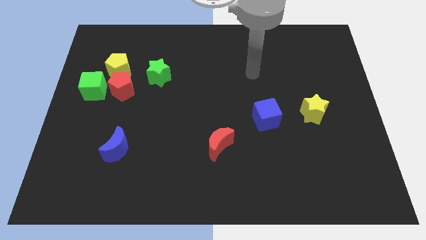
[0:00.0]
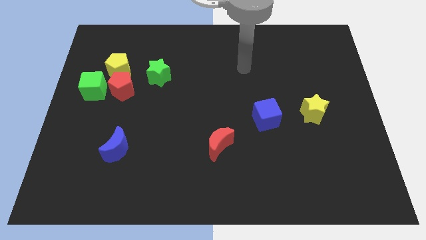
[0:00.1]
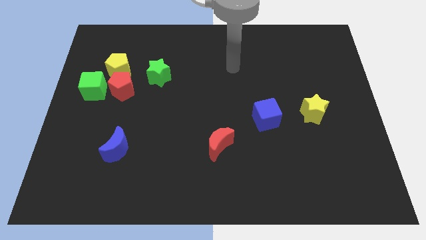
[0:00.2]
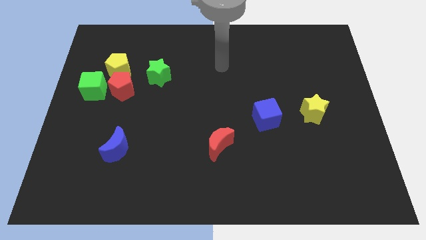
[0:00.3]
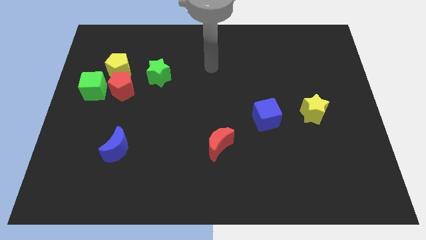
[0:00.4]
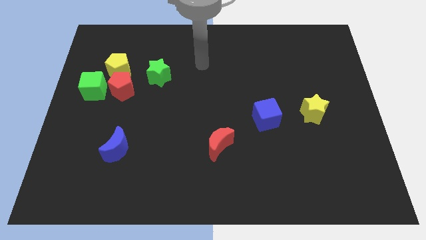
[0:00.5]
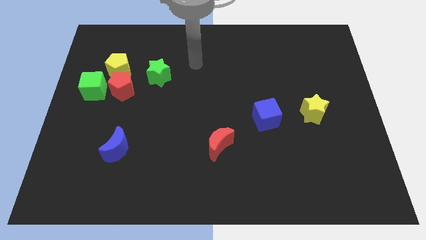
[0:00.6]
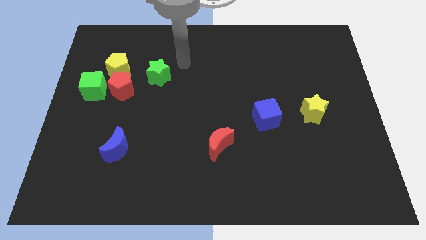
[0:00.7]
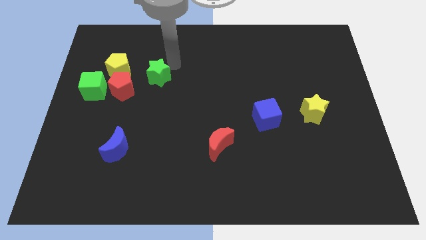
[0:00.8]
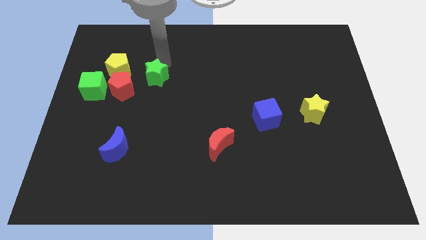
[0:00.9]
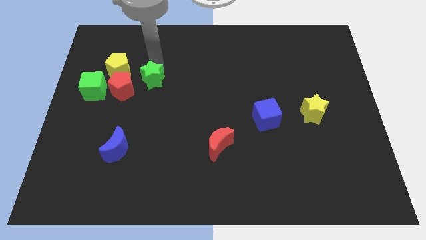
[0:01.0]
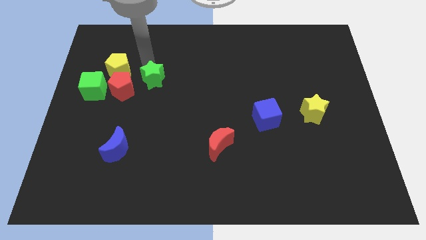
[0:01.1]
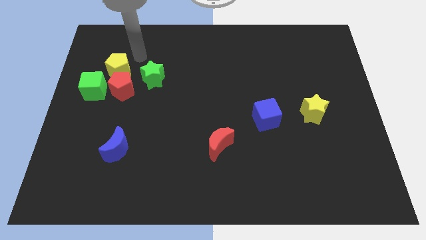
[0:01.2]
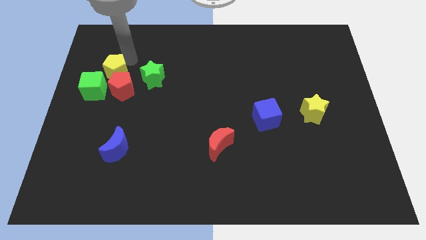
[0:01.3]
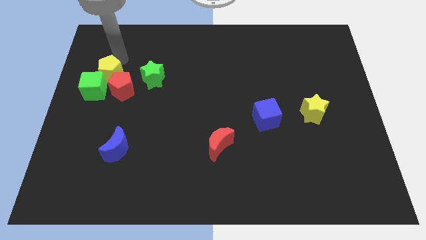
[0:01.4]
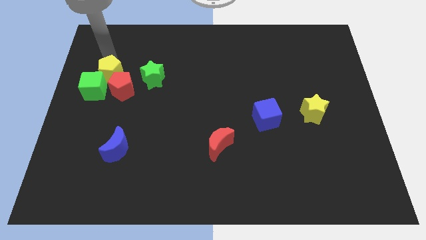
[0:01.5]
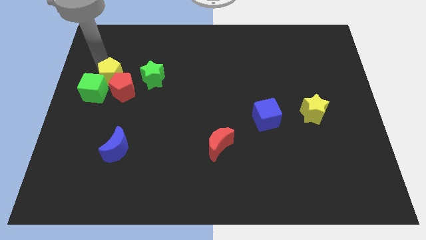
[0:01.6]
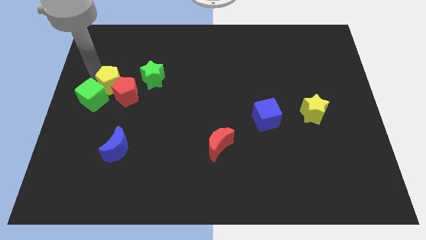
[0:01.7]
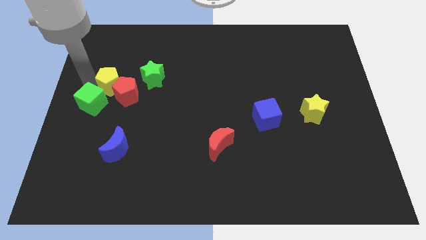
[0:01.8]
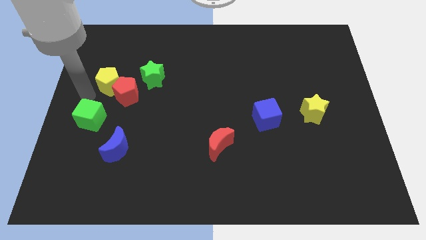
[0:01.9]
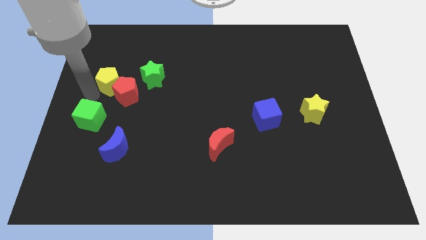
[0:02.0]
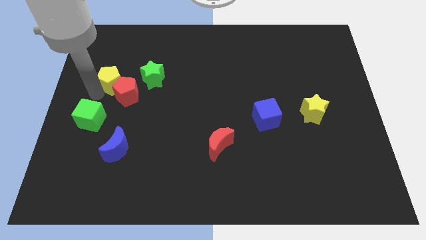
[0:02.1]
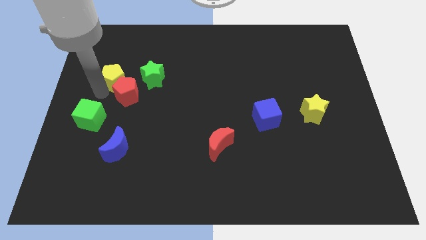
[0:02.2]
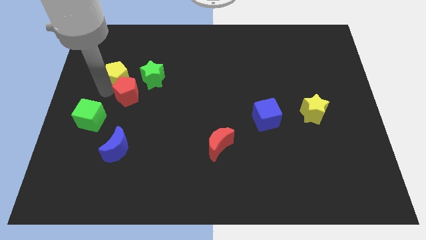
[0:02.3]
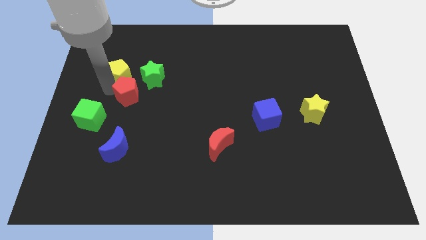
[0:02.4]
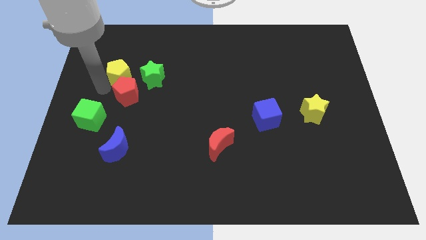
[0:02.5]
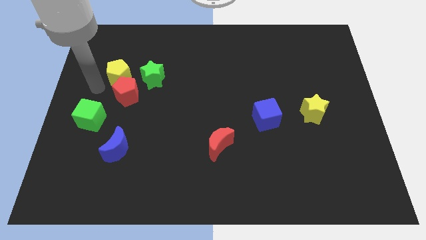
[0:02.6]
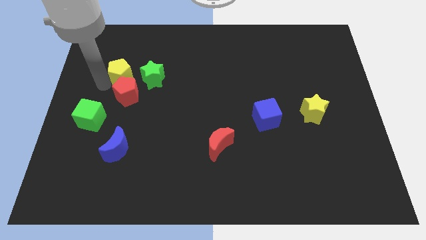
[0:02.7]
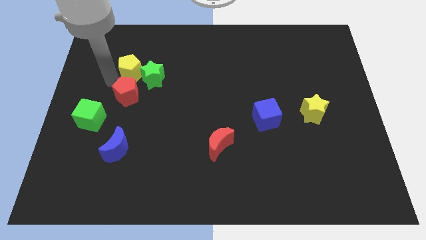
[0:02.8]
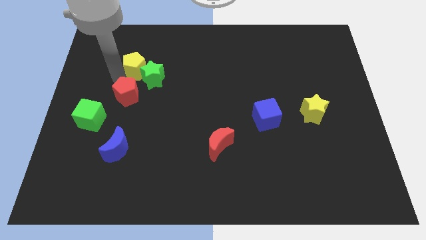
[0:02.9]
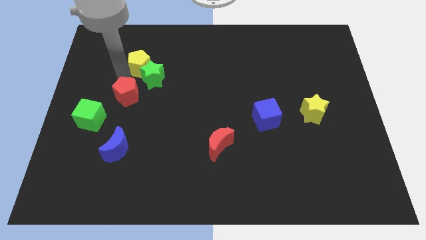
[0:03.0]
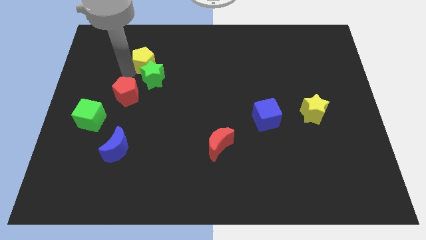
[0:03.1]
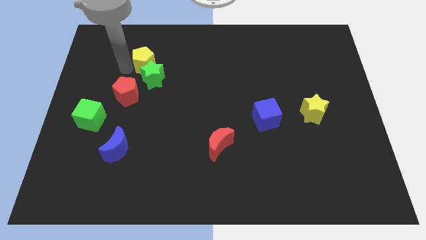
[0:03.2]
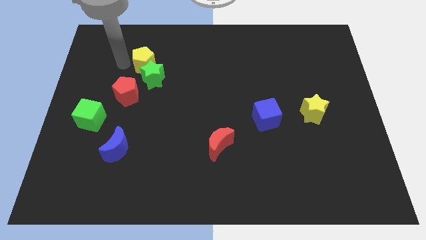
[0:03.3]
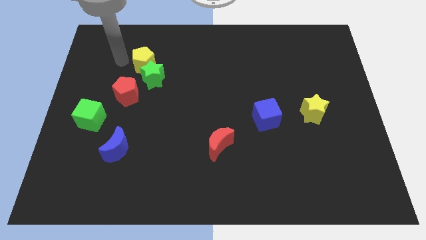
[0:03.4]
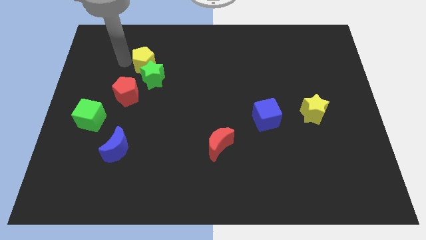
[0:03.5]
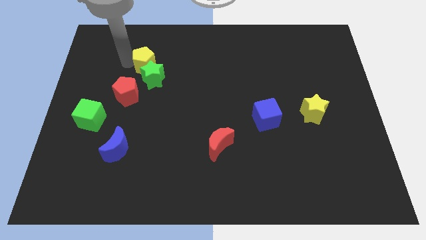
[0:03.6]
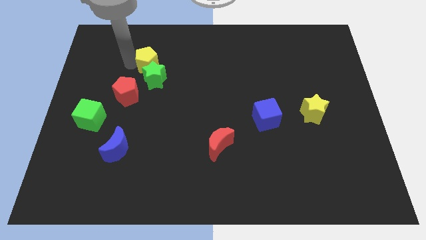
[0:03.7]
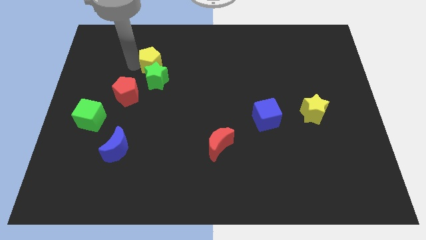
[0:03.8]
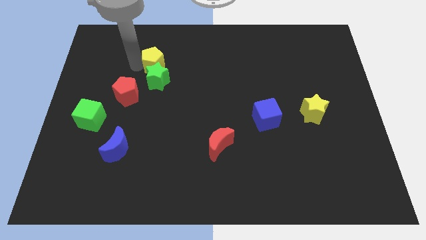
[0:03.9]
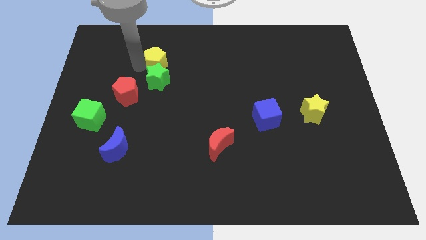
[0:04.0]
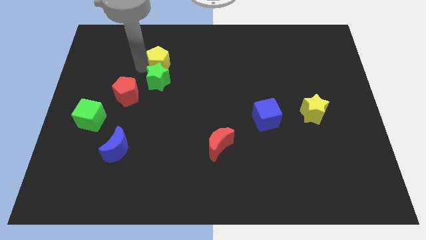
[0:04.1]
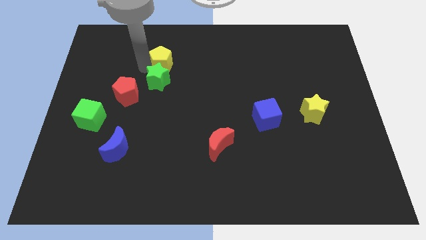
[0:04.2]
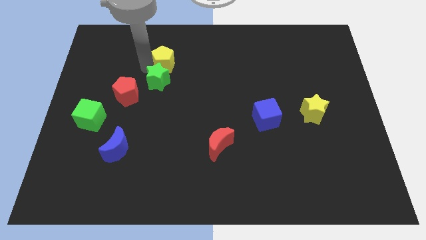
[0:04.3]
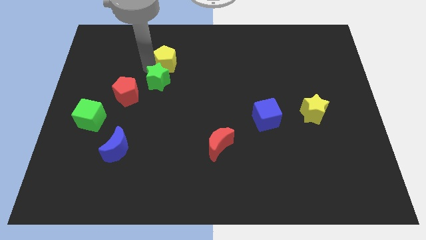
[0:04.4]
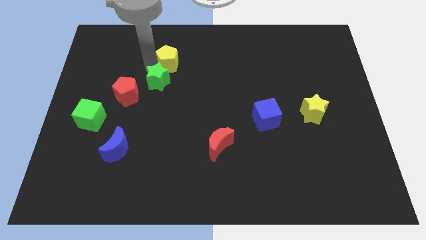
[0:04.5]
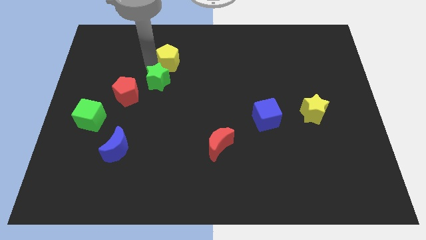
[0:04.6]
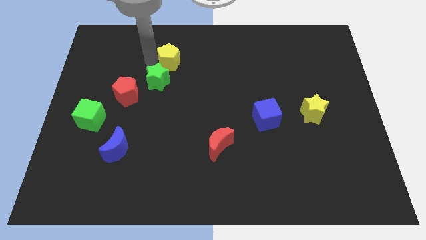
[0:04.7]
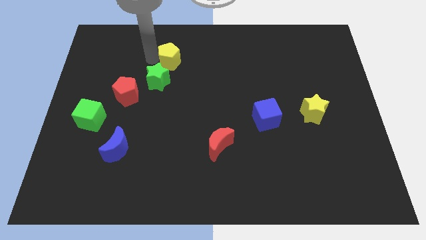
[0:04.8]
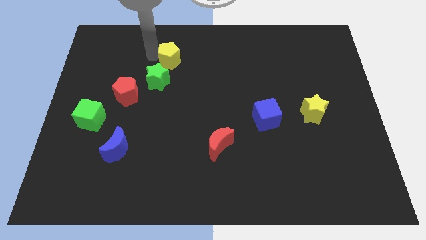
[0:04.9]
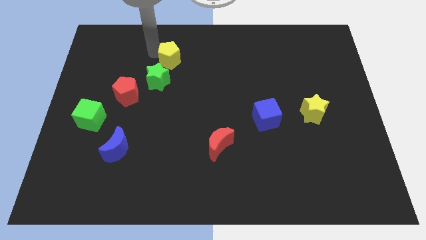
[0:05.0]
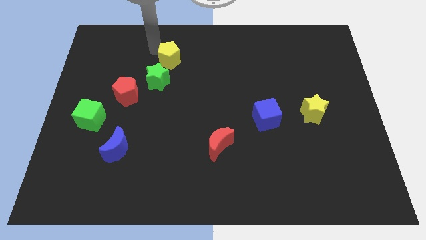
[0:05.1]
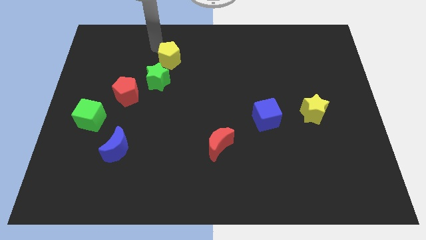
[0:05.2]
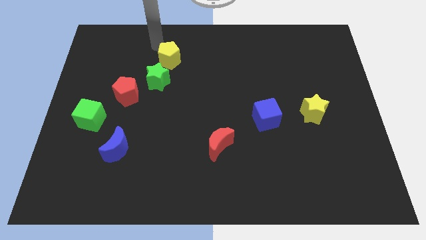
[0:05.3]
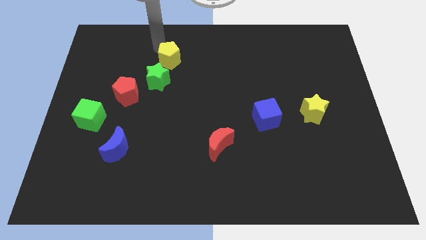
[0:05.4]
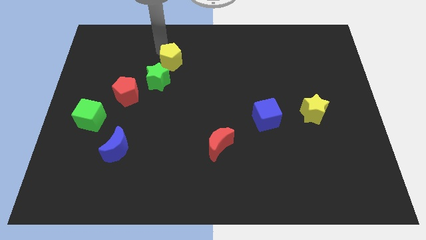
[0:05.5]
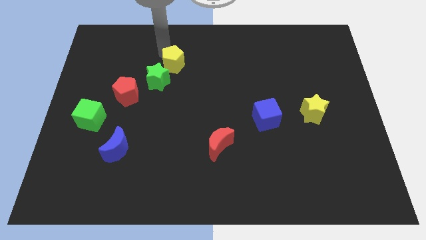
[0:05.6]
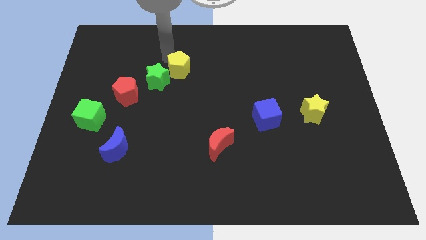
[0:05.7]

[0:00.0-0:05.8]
slide the yellow pentagon right of the green star

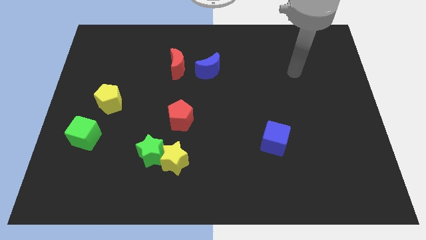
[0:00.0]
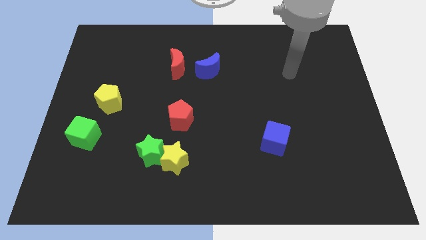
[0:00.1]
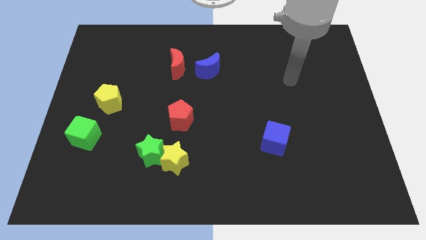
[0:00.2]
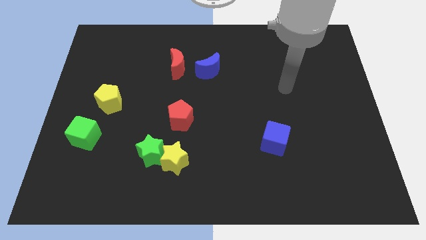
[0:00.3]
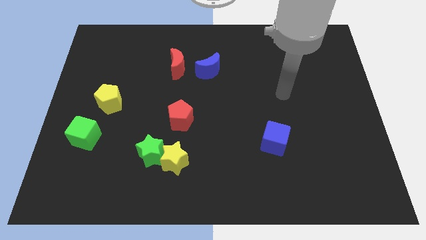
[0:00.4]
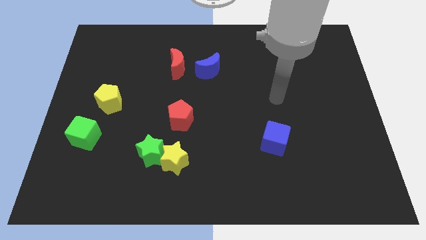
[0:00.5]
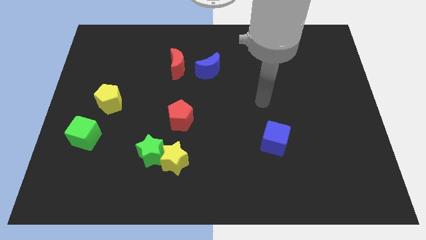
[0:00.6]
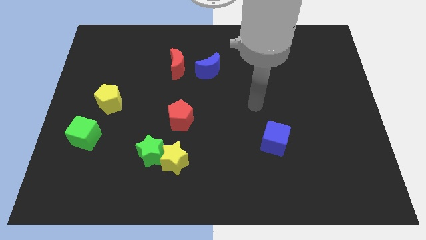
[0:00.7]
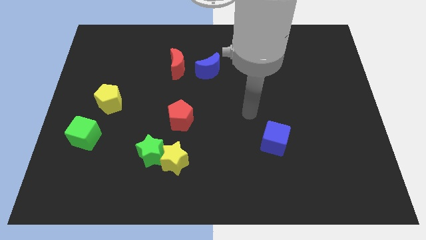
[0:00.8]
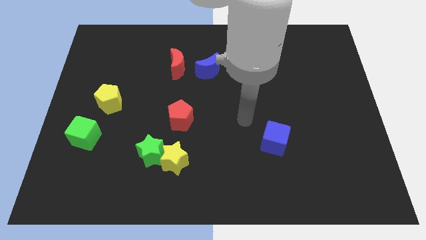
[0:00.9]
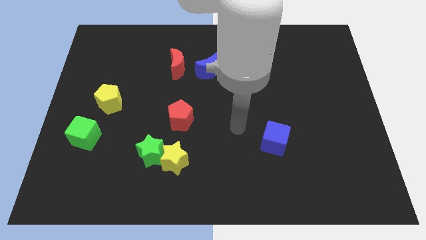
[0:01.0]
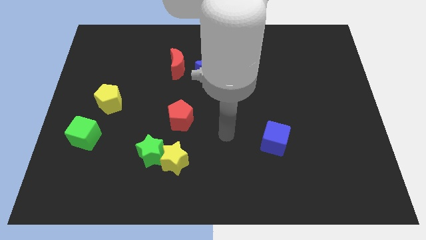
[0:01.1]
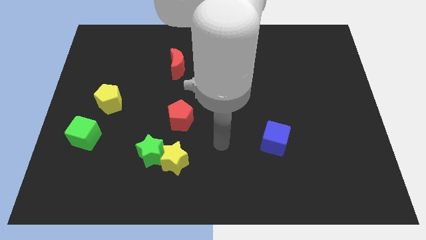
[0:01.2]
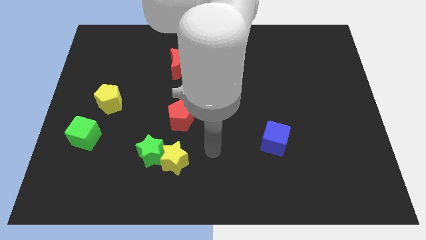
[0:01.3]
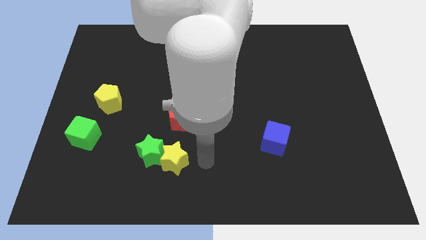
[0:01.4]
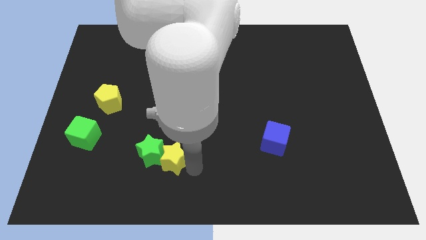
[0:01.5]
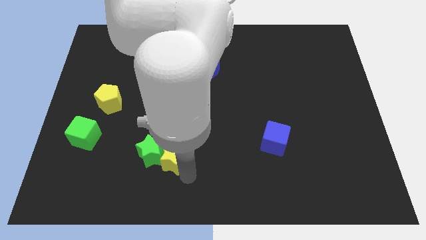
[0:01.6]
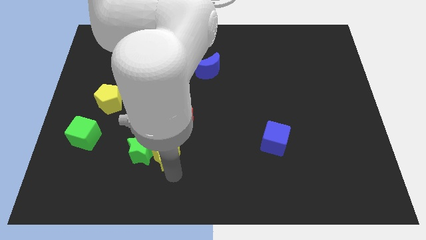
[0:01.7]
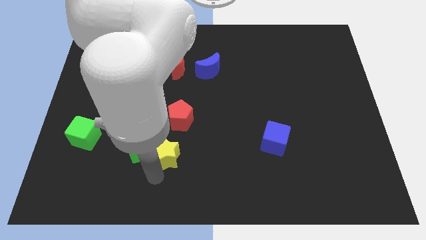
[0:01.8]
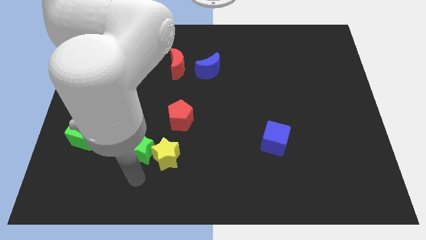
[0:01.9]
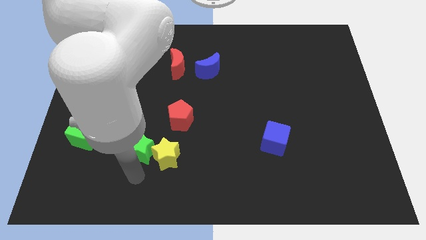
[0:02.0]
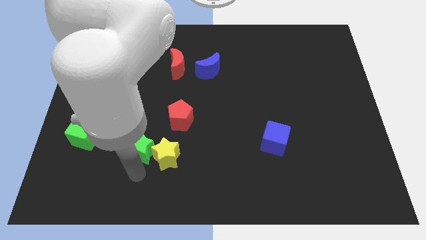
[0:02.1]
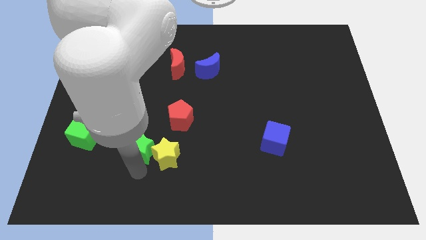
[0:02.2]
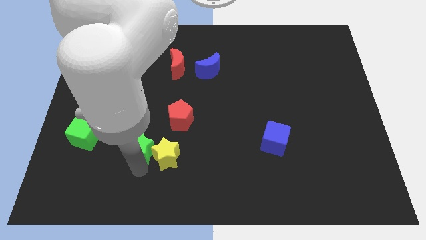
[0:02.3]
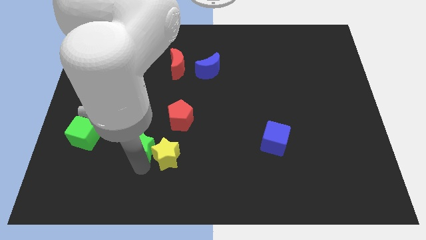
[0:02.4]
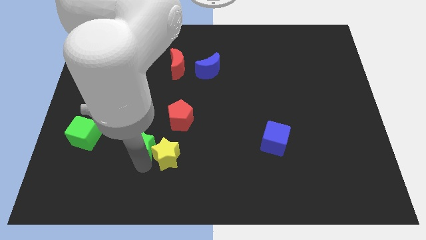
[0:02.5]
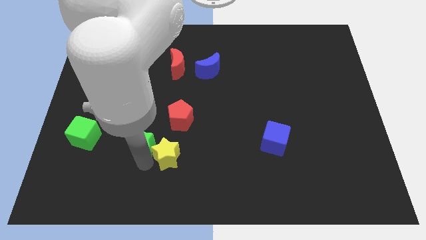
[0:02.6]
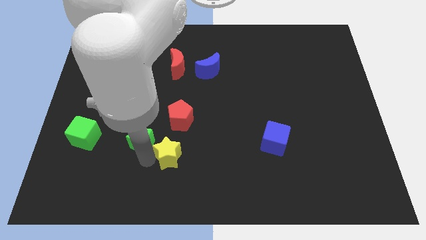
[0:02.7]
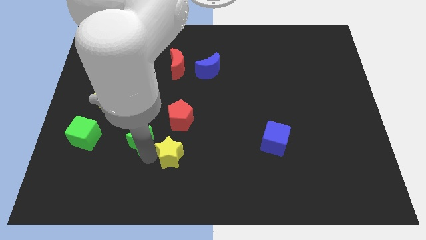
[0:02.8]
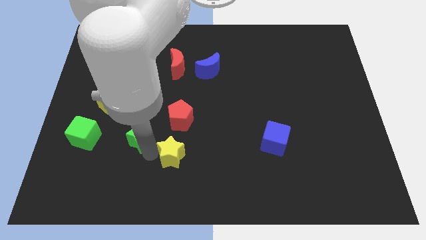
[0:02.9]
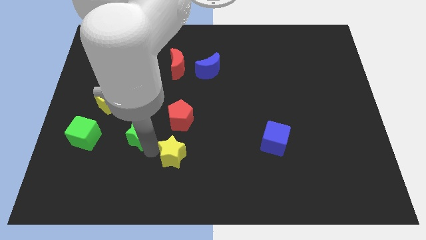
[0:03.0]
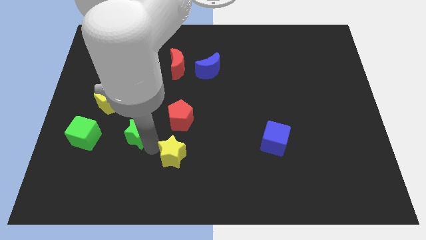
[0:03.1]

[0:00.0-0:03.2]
move the green star to the left of the red pentagon
